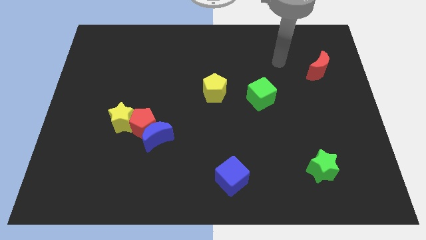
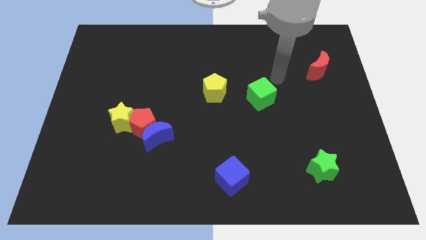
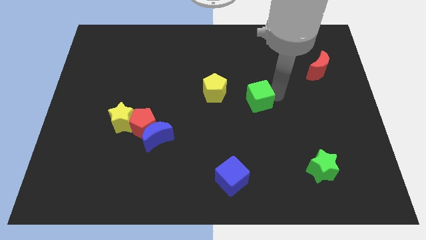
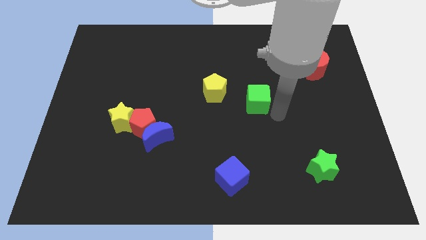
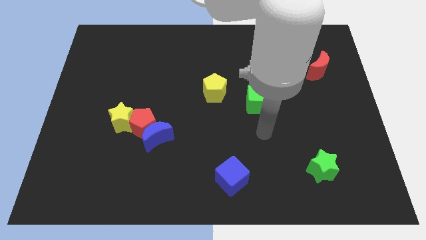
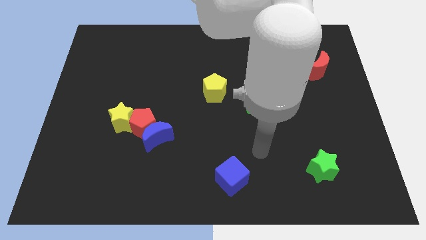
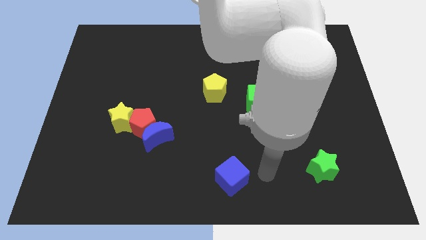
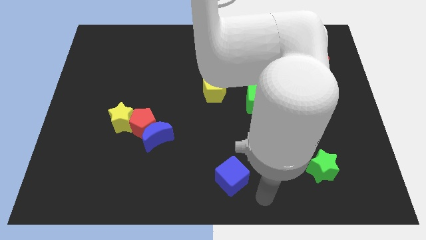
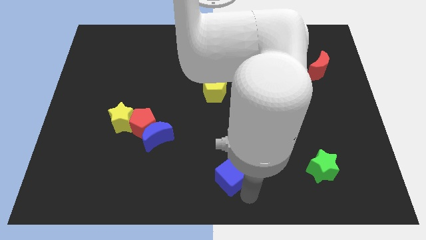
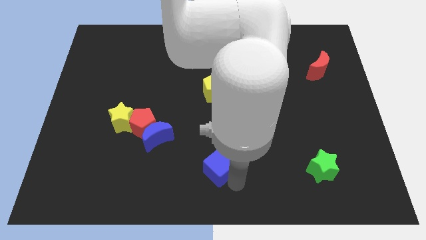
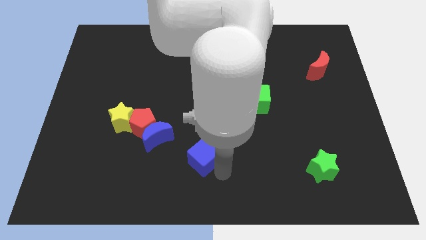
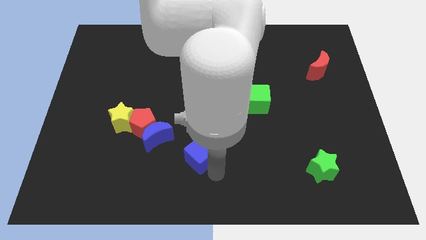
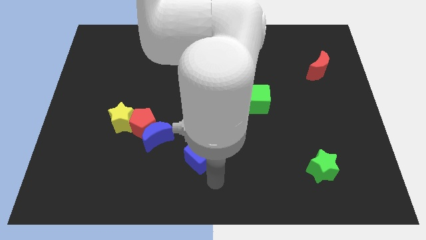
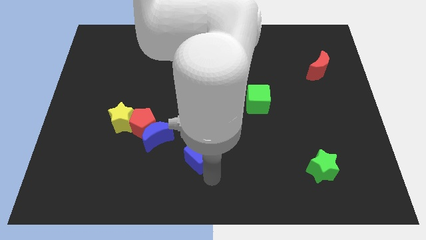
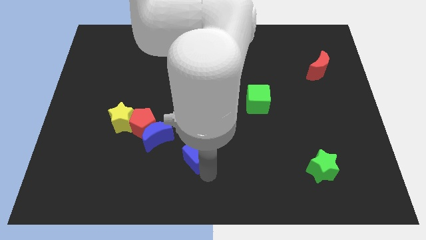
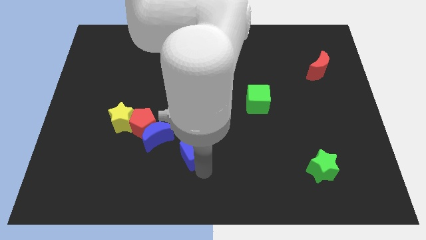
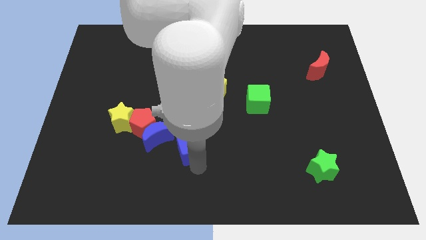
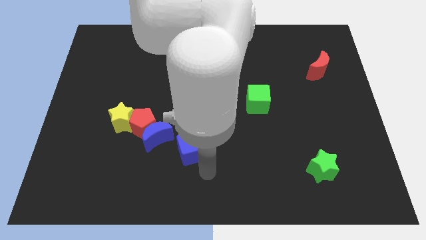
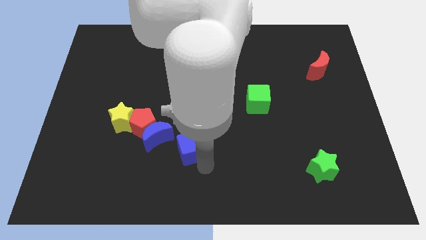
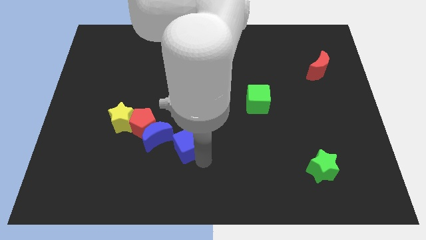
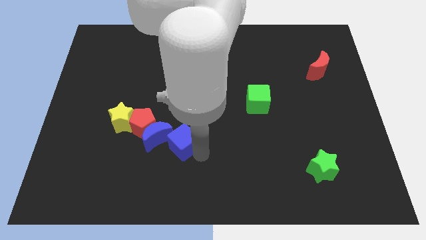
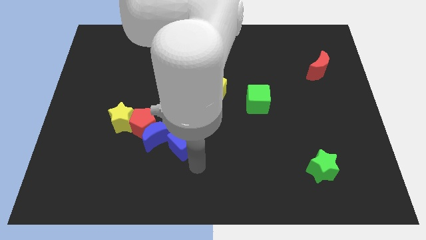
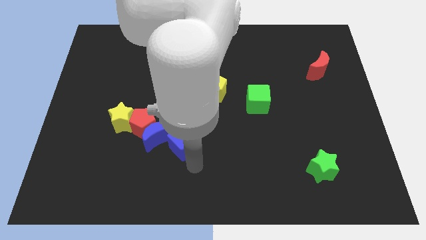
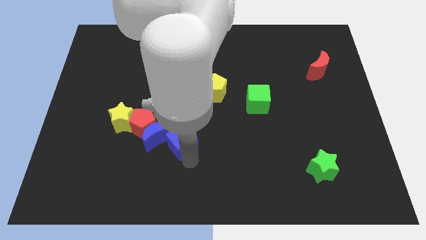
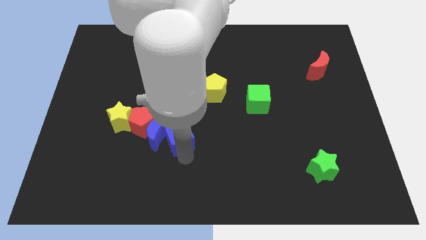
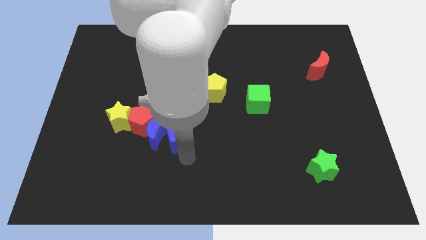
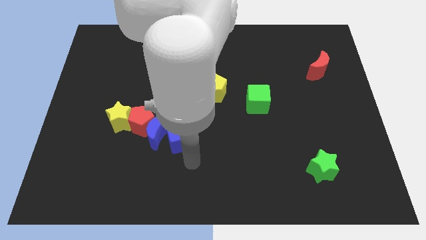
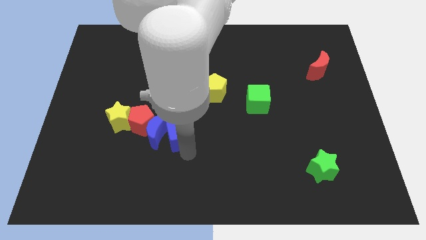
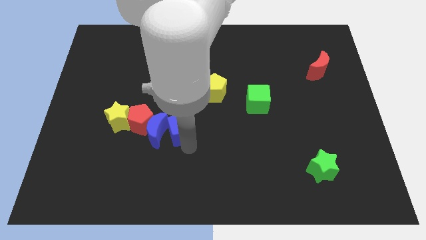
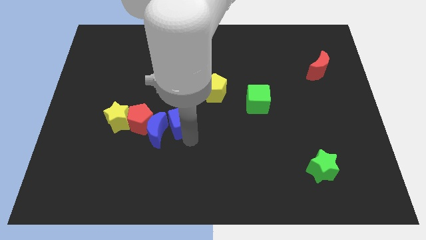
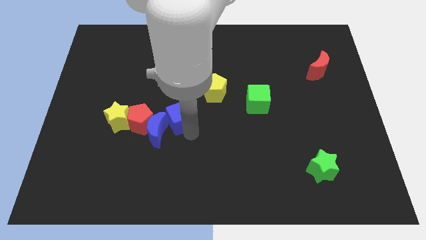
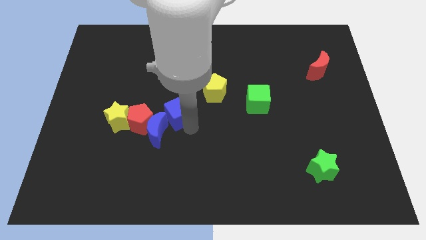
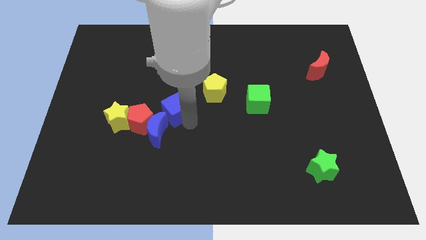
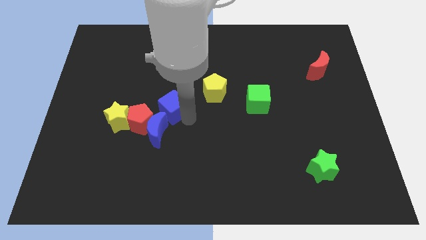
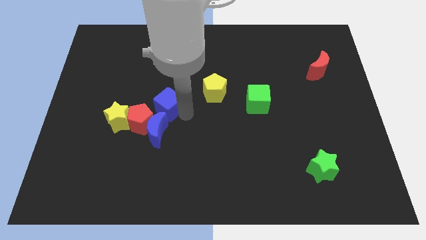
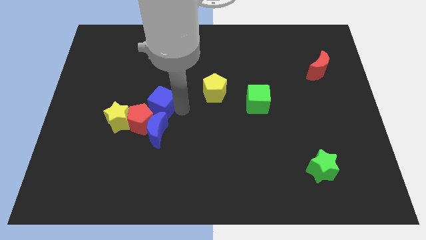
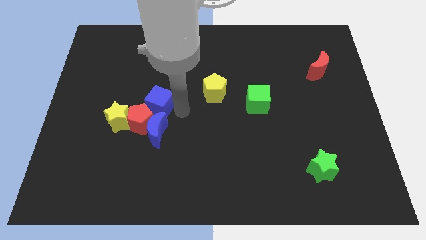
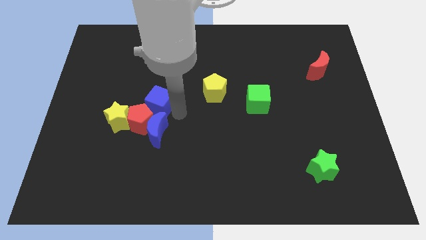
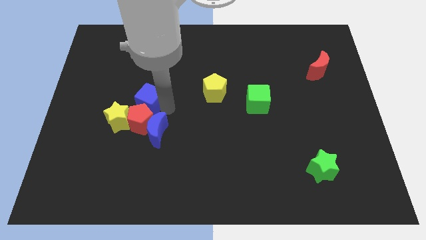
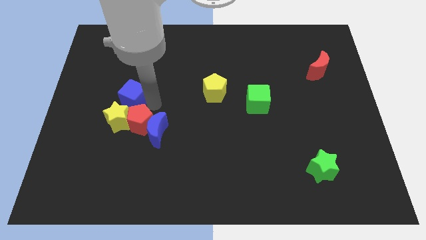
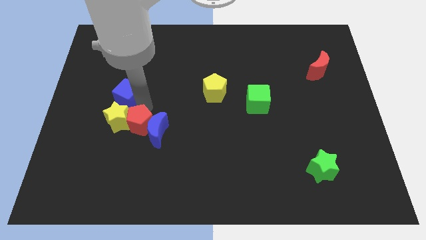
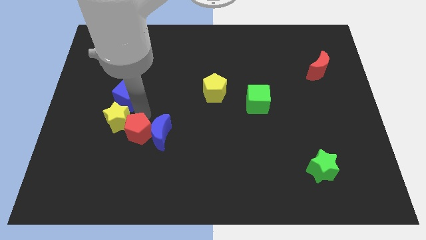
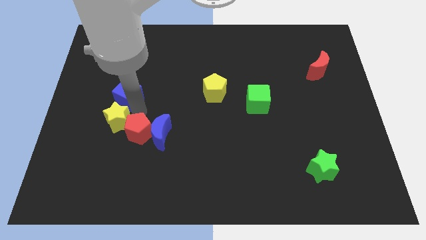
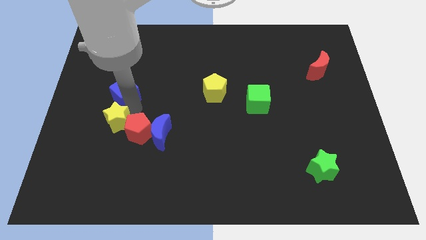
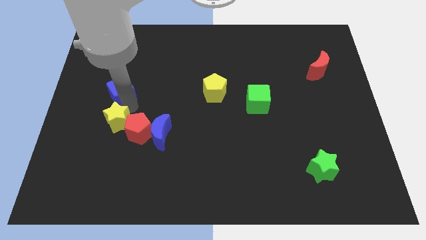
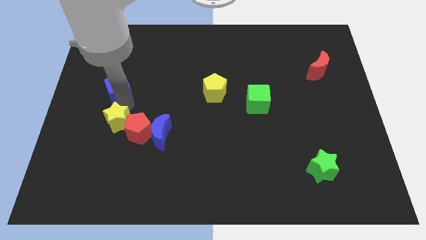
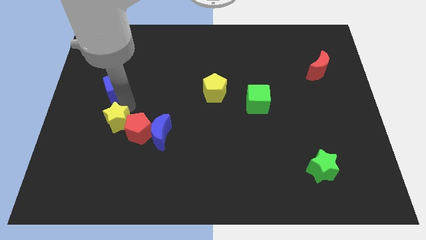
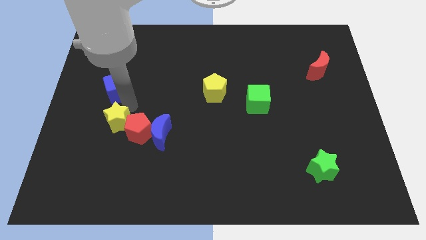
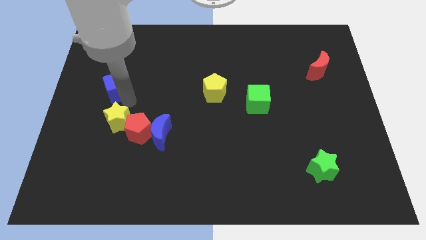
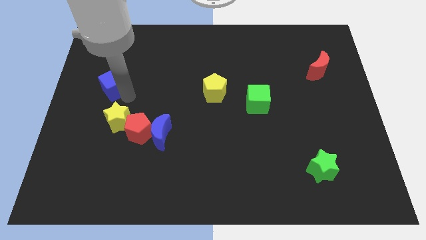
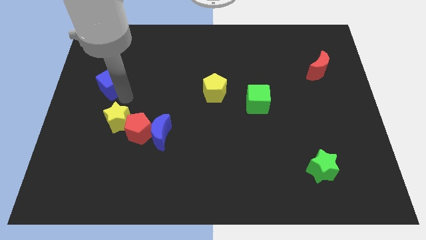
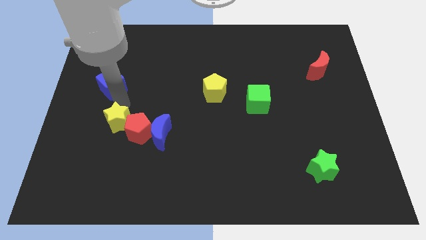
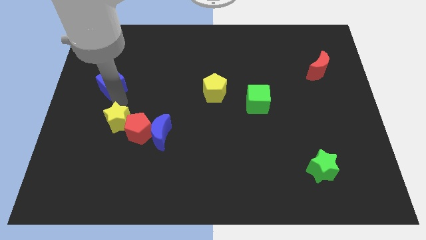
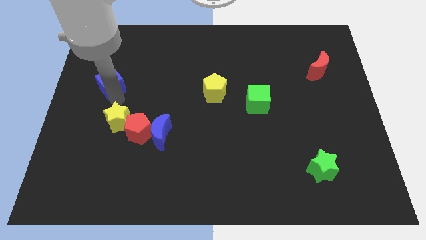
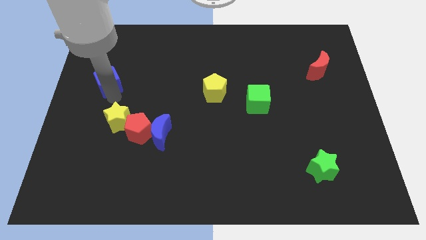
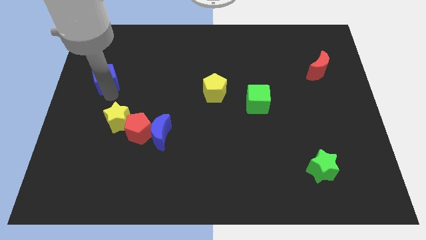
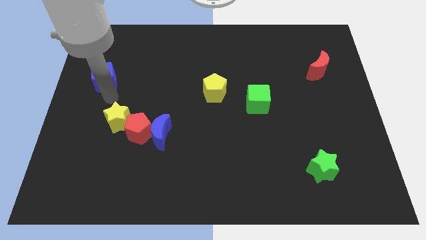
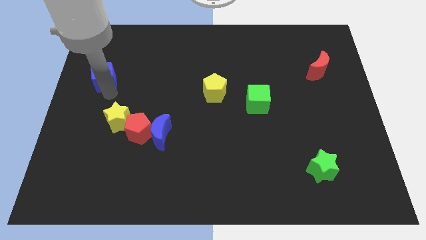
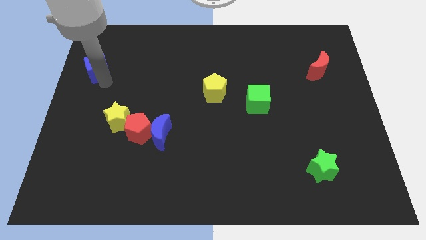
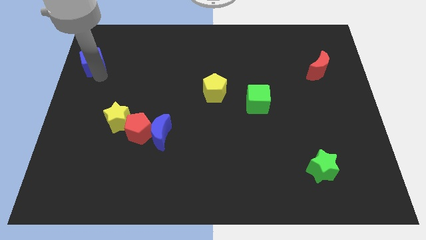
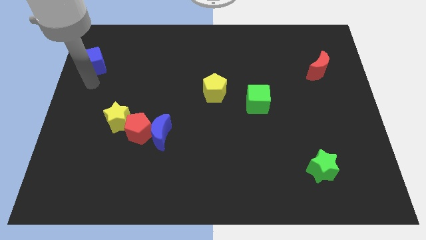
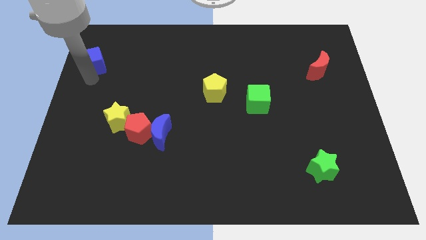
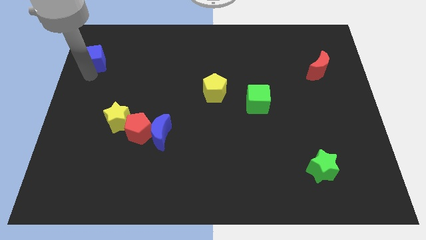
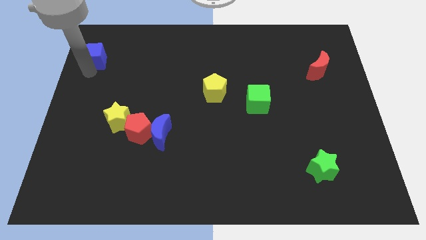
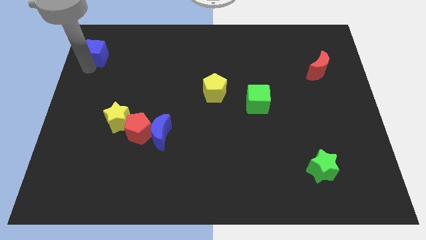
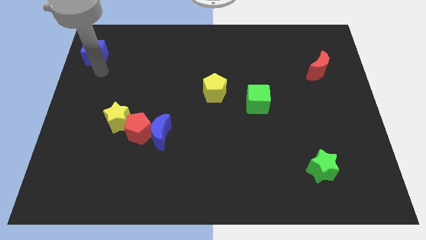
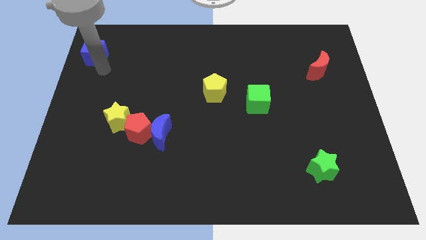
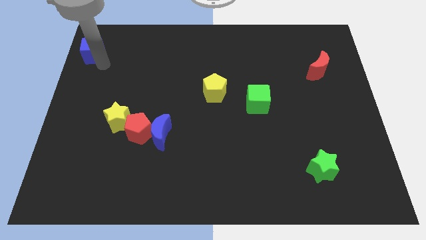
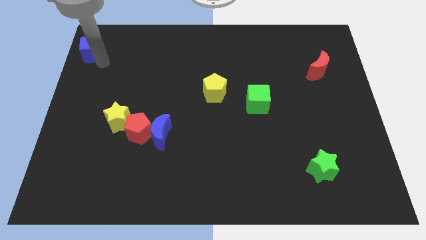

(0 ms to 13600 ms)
slide the blue cube to the top left of the board

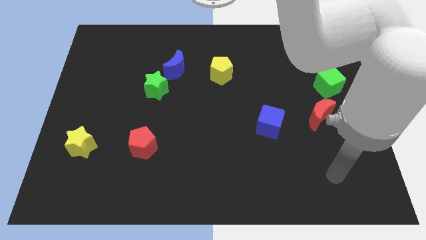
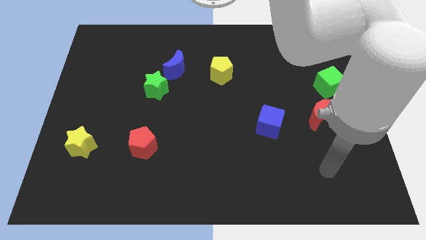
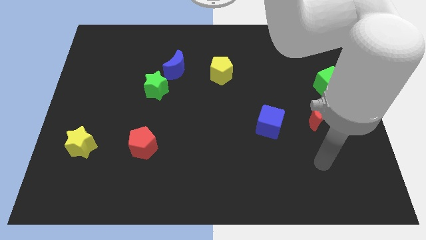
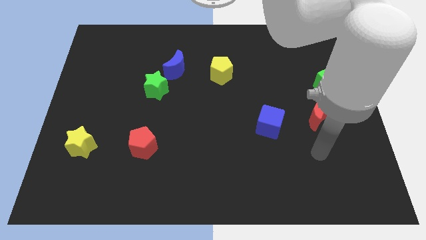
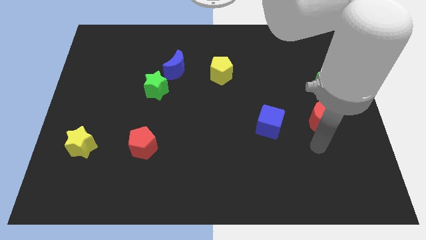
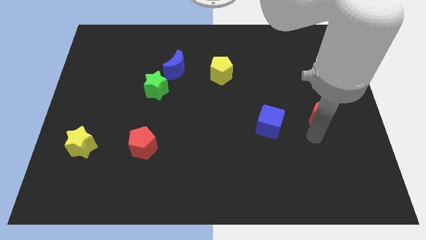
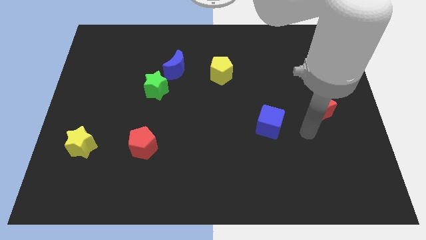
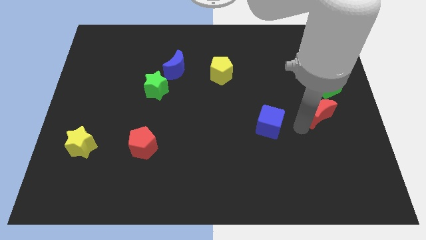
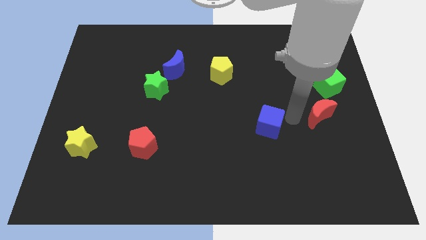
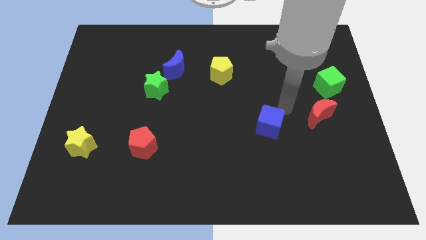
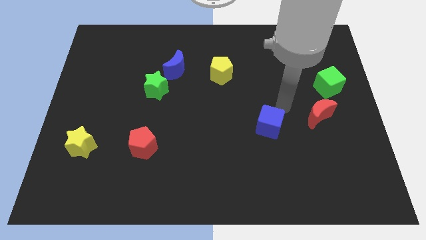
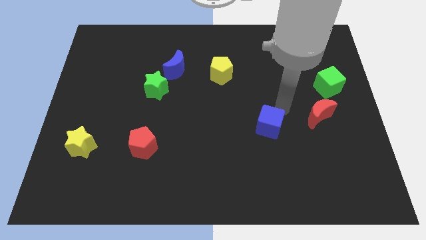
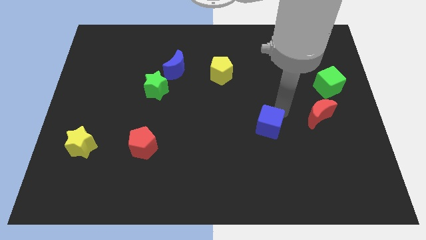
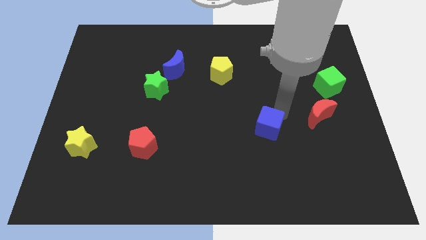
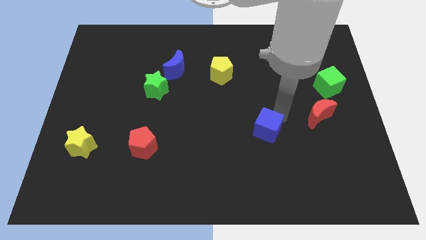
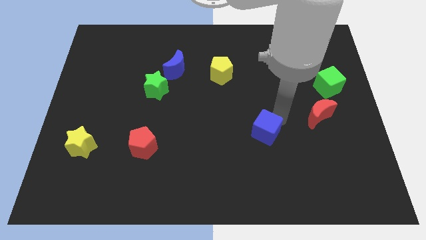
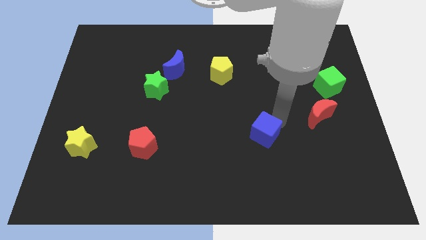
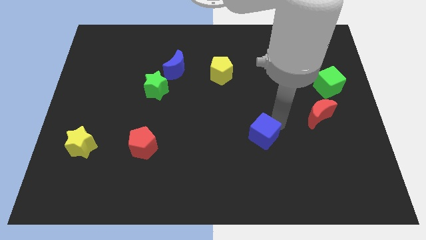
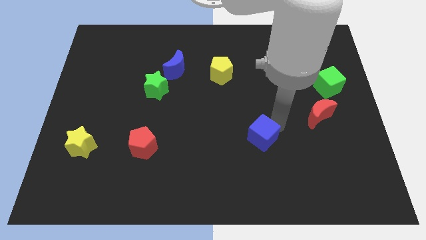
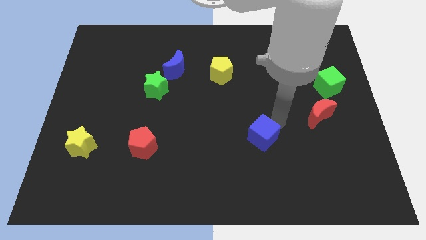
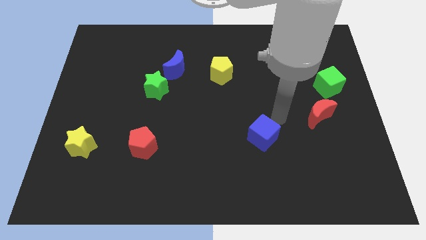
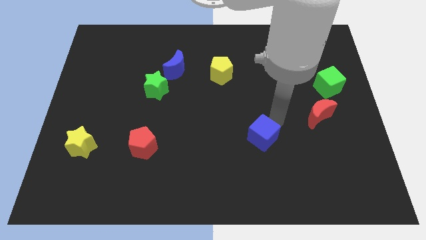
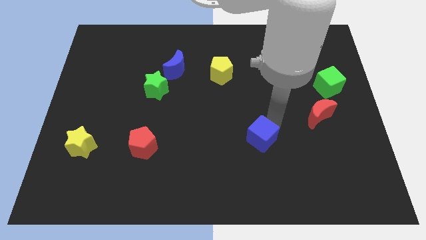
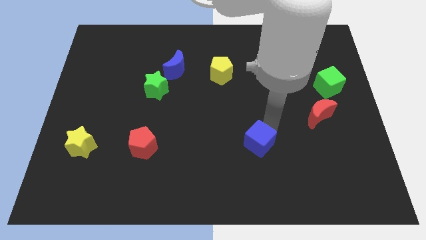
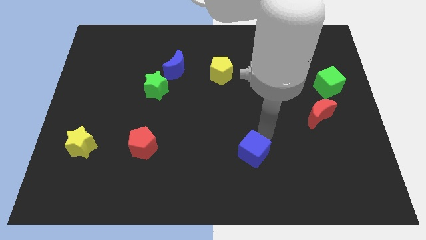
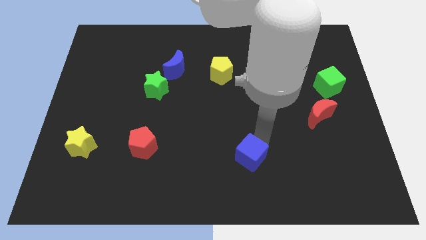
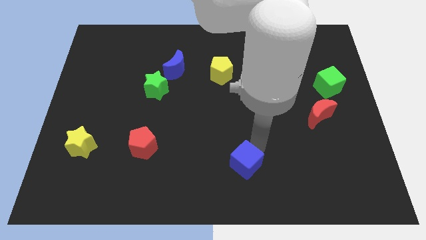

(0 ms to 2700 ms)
move the blue cube to the bottom side
